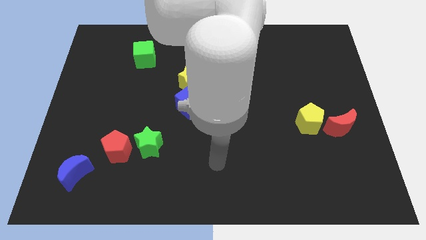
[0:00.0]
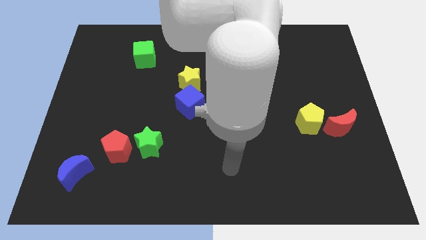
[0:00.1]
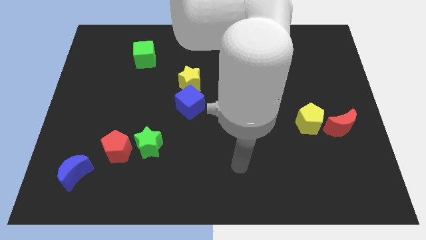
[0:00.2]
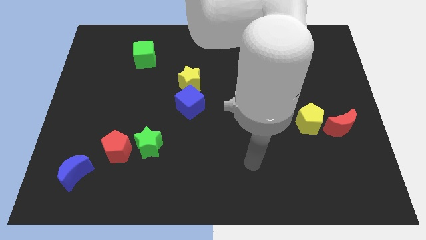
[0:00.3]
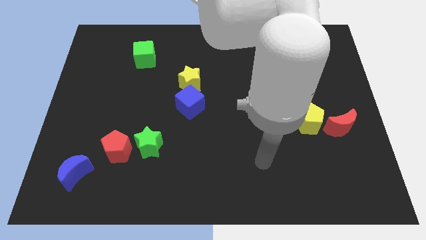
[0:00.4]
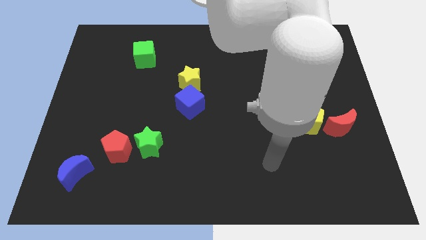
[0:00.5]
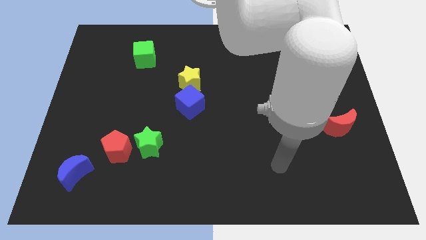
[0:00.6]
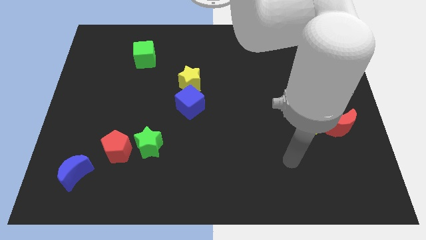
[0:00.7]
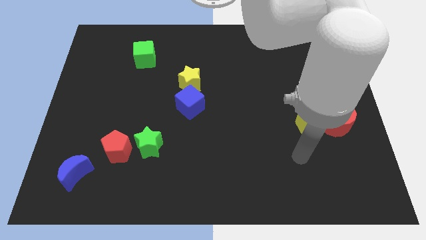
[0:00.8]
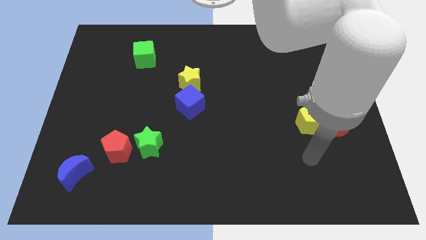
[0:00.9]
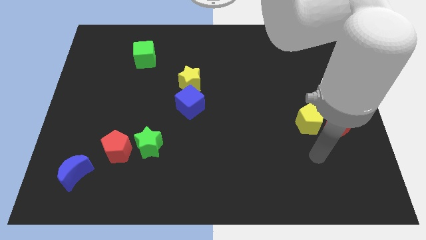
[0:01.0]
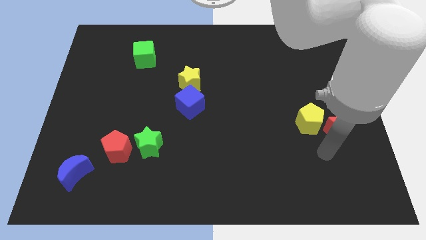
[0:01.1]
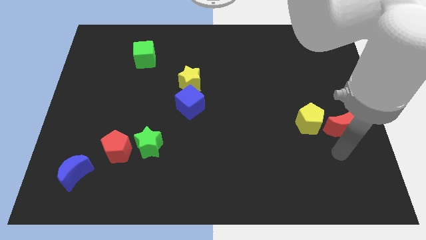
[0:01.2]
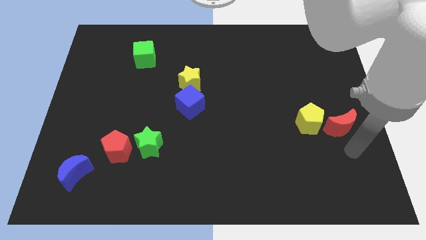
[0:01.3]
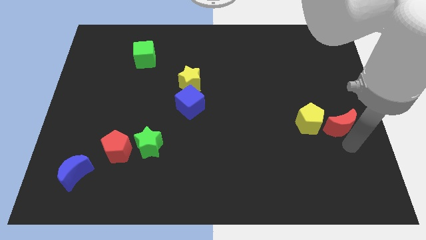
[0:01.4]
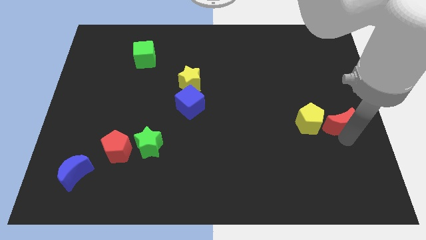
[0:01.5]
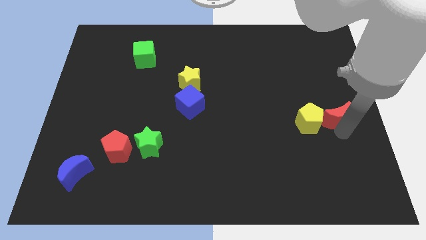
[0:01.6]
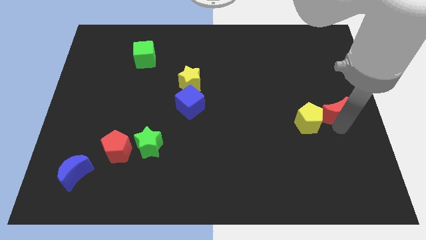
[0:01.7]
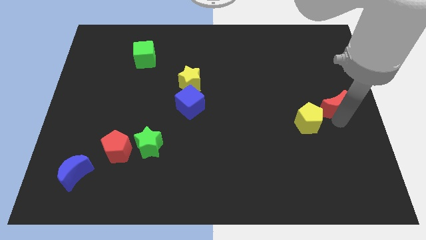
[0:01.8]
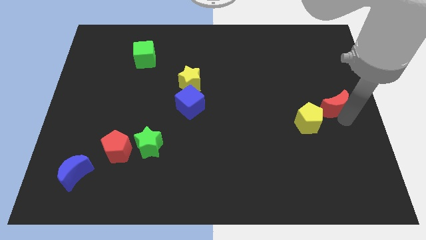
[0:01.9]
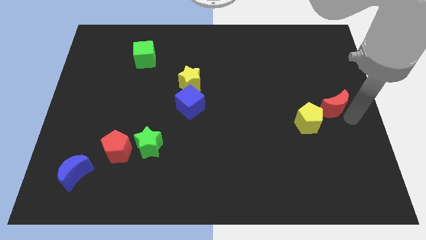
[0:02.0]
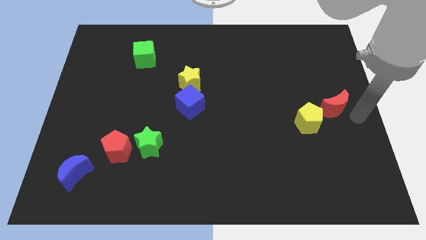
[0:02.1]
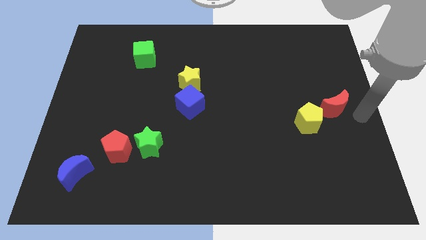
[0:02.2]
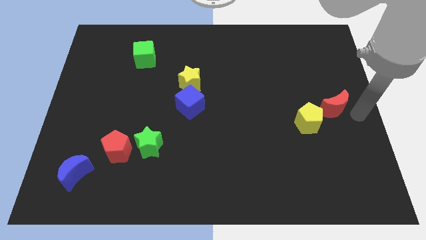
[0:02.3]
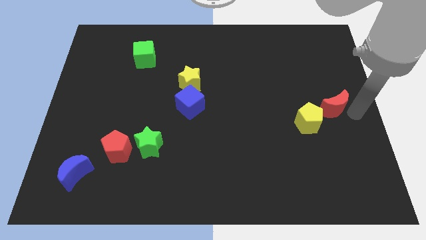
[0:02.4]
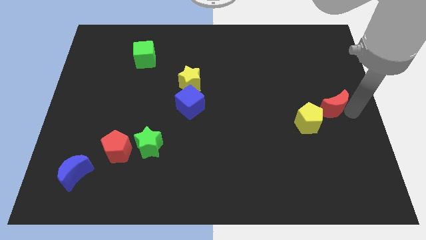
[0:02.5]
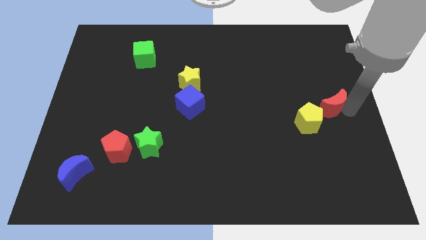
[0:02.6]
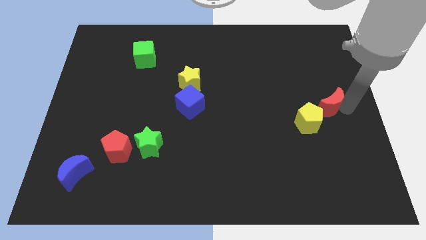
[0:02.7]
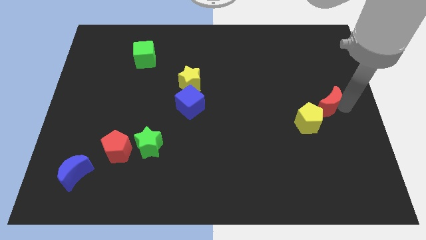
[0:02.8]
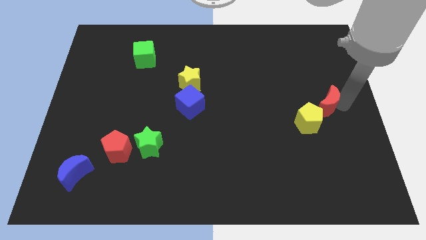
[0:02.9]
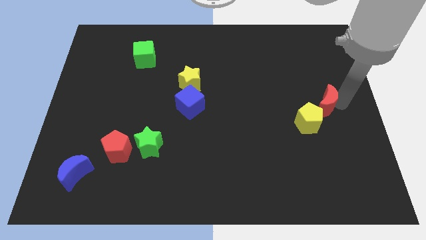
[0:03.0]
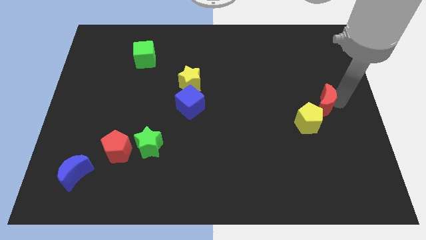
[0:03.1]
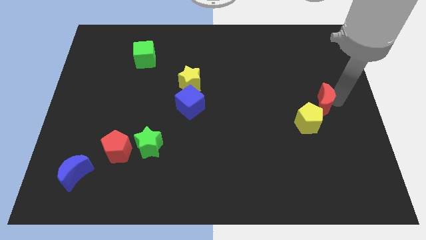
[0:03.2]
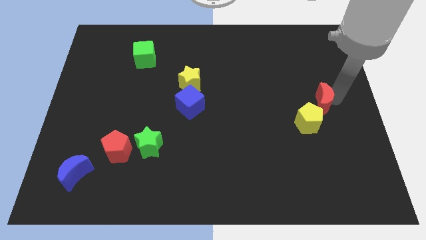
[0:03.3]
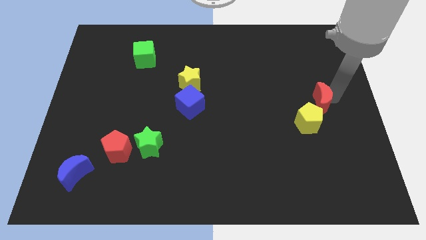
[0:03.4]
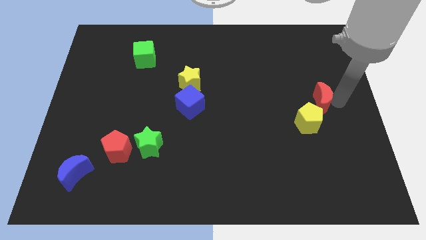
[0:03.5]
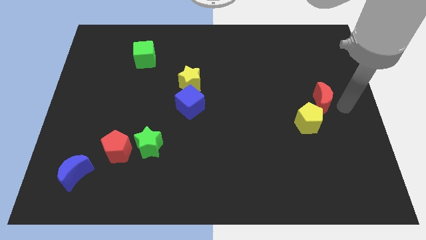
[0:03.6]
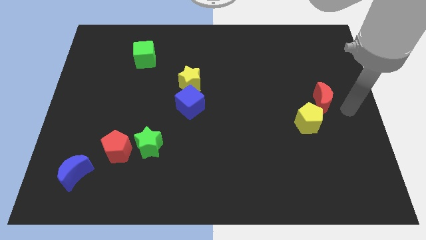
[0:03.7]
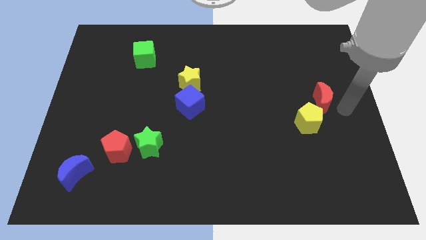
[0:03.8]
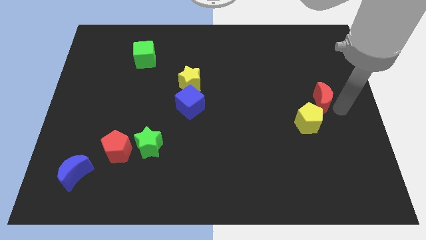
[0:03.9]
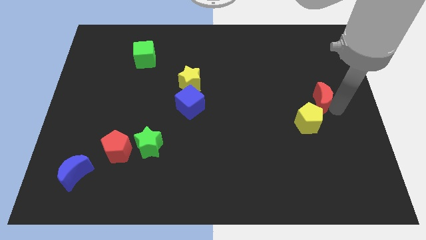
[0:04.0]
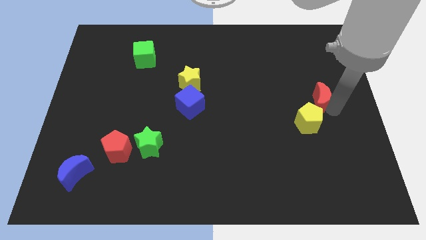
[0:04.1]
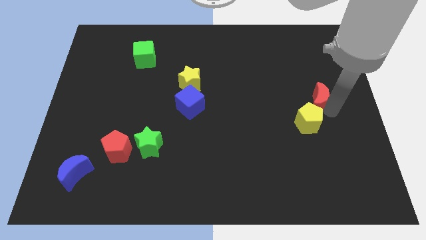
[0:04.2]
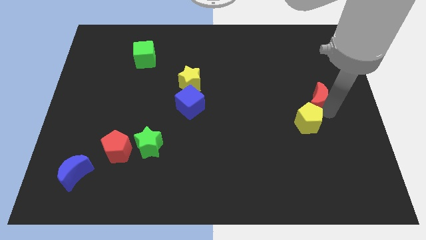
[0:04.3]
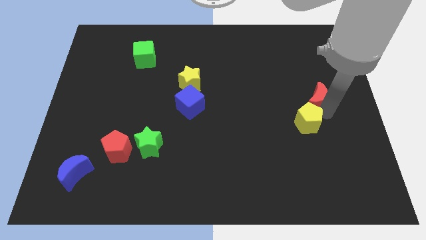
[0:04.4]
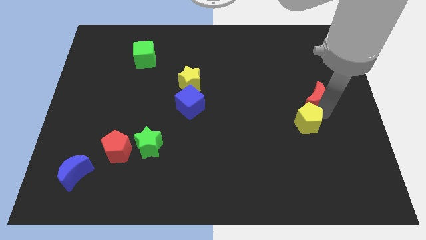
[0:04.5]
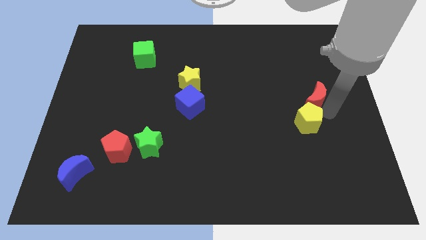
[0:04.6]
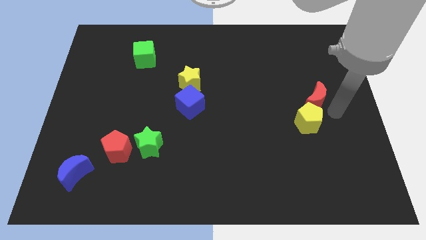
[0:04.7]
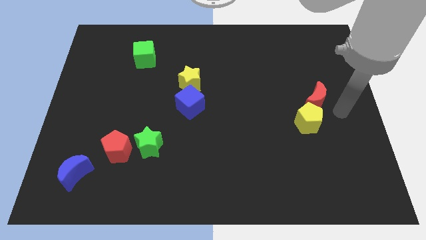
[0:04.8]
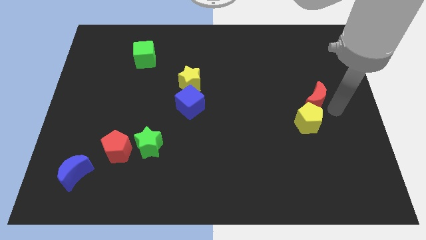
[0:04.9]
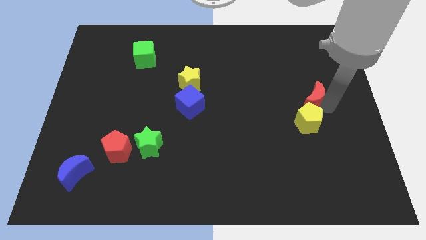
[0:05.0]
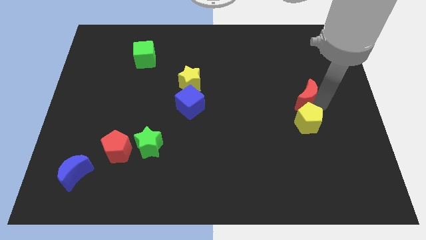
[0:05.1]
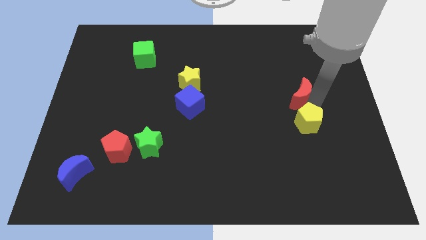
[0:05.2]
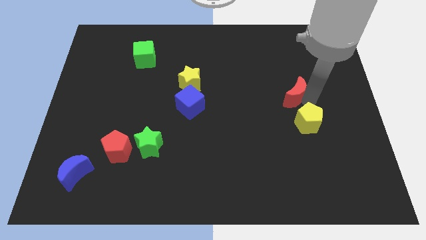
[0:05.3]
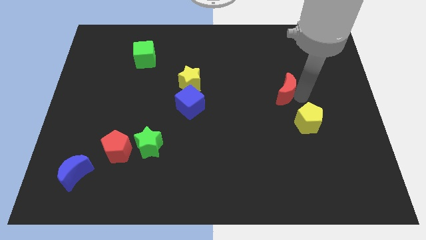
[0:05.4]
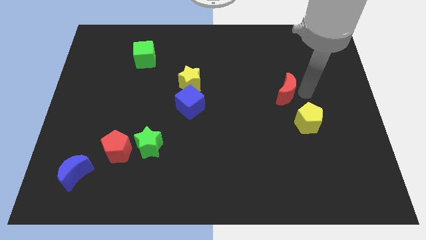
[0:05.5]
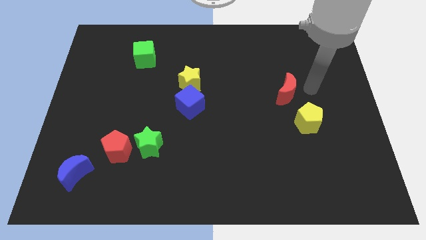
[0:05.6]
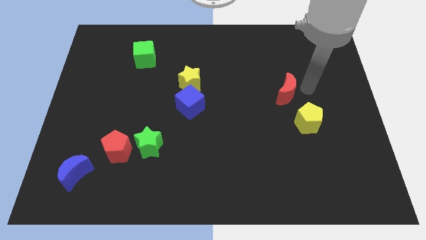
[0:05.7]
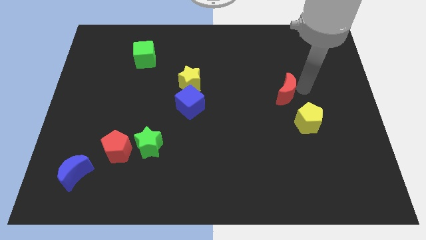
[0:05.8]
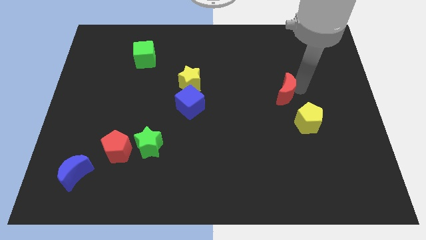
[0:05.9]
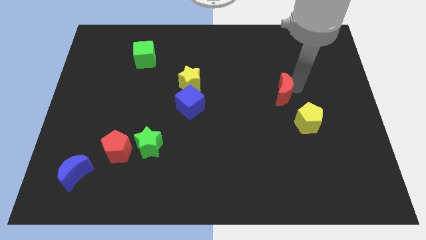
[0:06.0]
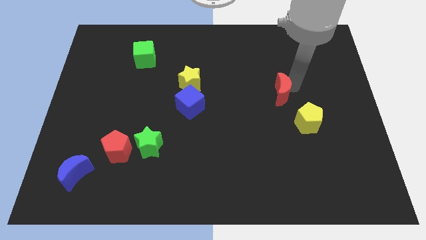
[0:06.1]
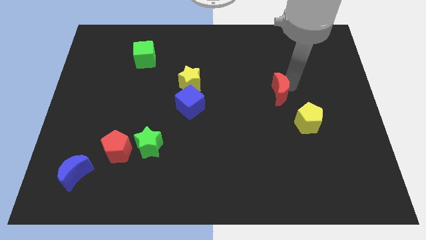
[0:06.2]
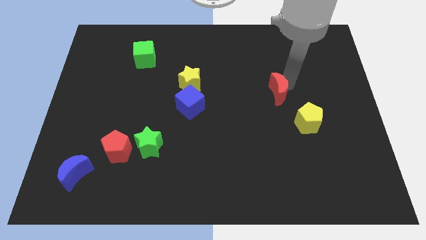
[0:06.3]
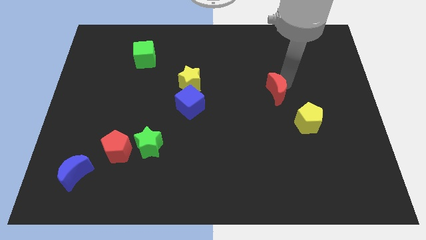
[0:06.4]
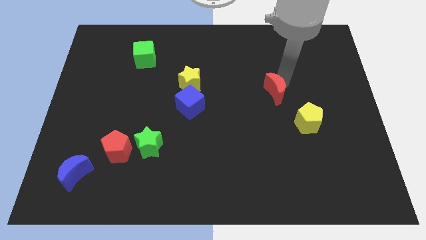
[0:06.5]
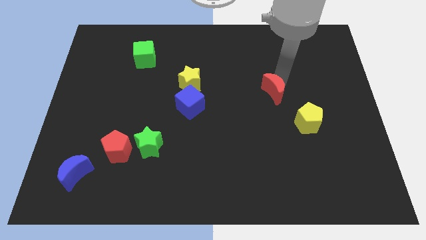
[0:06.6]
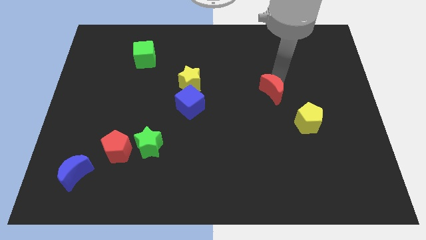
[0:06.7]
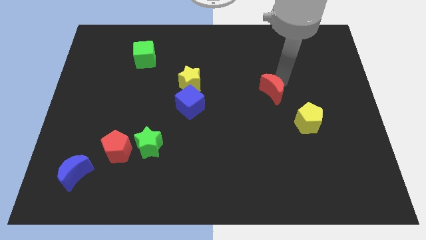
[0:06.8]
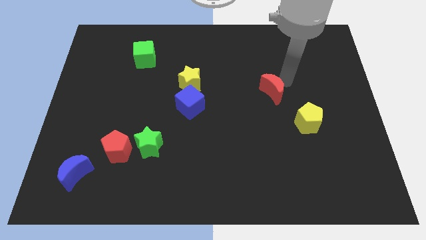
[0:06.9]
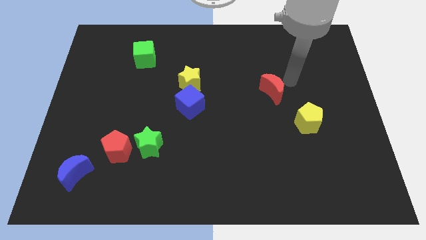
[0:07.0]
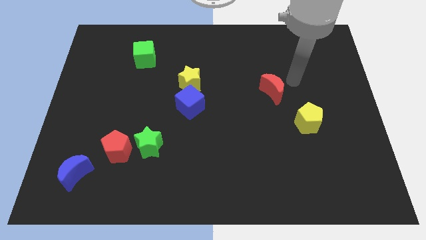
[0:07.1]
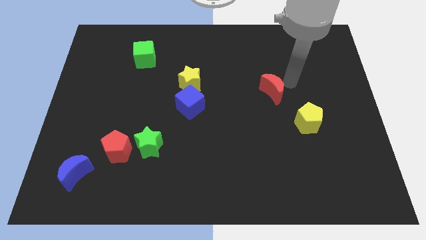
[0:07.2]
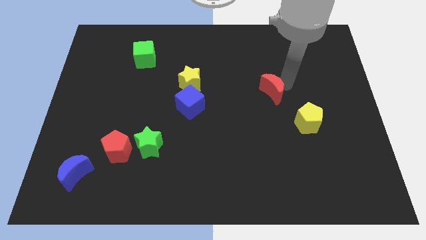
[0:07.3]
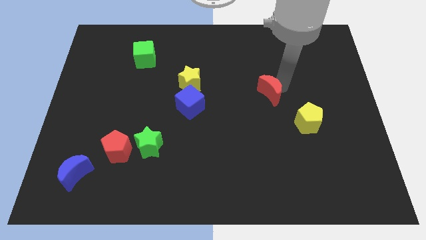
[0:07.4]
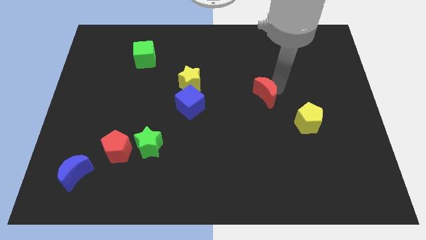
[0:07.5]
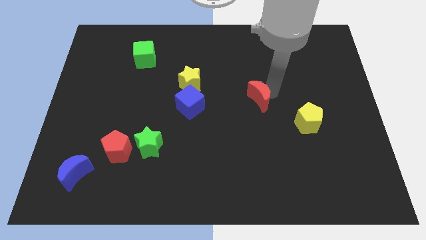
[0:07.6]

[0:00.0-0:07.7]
slide the red moon to the middle
